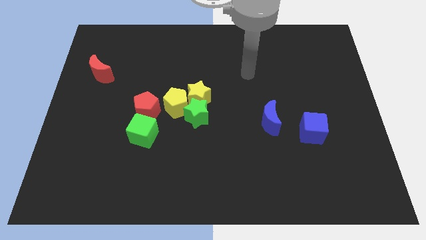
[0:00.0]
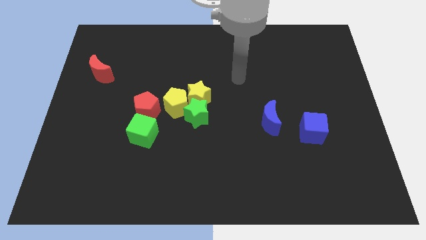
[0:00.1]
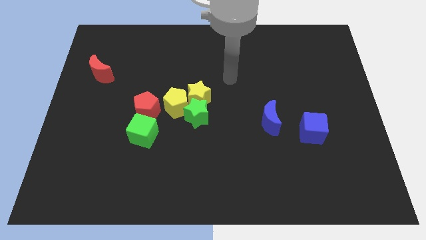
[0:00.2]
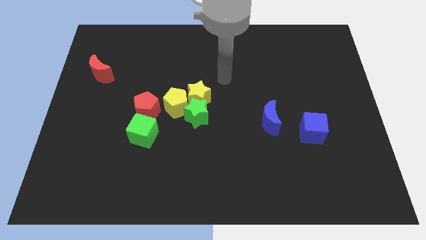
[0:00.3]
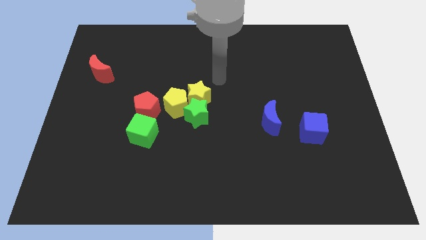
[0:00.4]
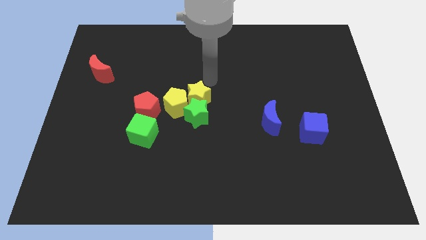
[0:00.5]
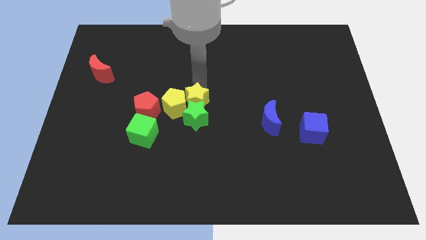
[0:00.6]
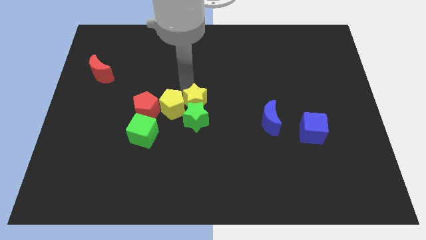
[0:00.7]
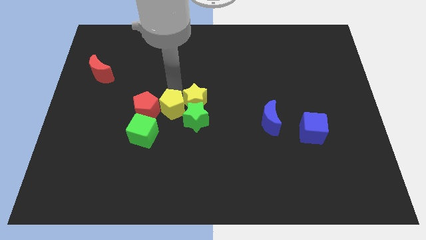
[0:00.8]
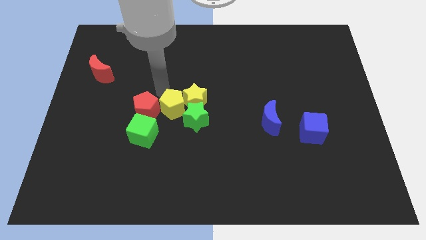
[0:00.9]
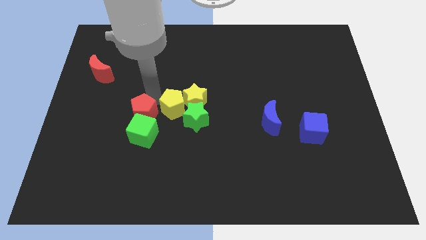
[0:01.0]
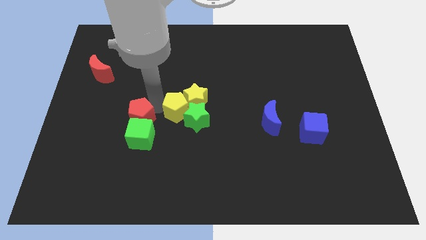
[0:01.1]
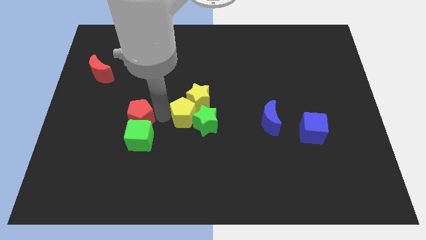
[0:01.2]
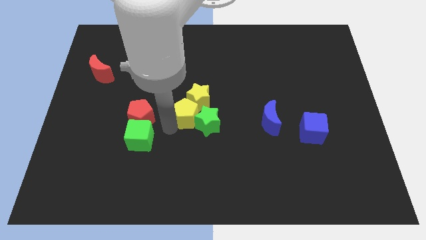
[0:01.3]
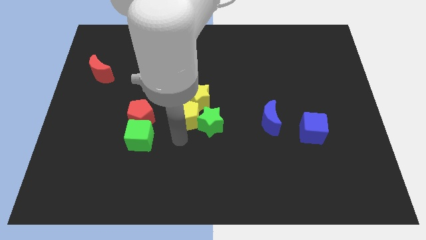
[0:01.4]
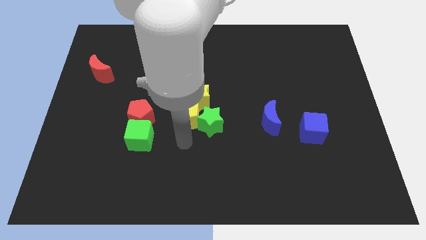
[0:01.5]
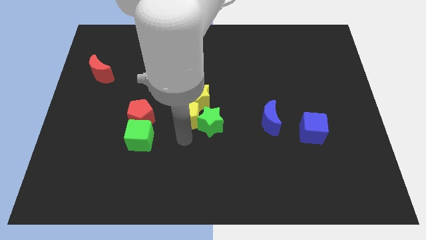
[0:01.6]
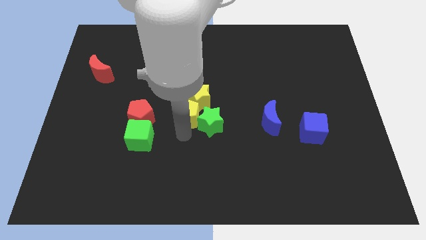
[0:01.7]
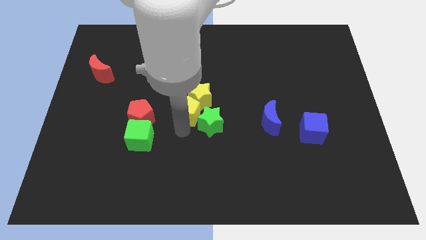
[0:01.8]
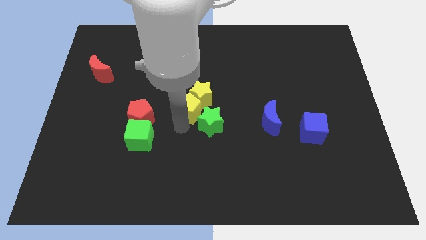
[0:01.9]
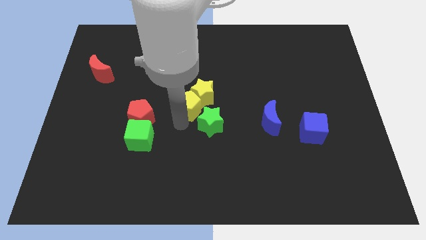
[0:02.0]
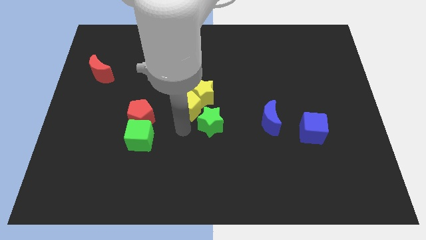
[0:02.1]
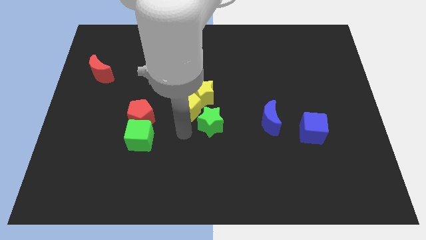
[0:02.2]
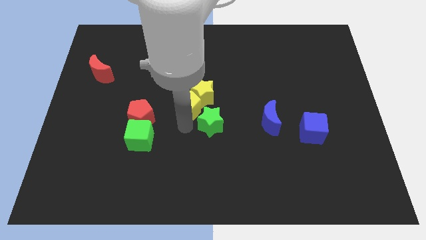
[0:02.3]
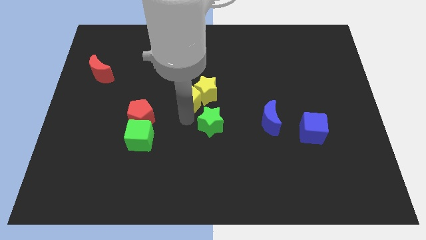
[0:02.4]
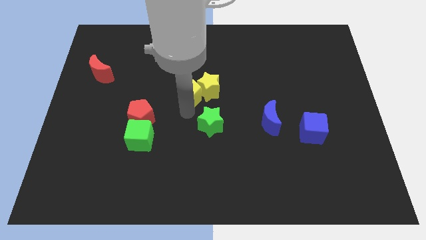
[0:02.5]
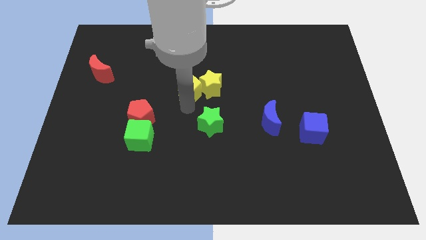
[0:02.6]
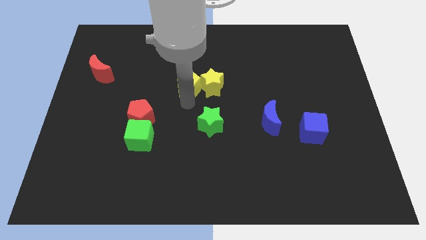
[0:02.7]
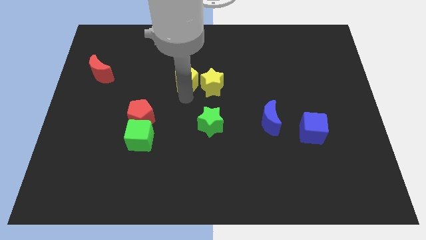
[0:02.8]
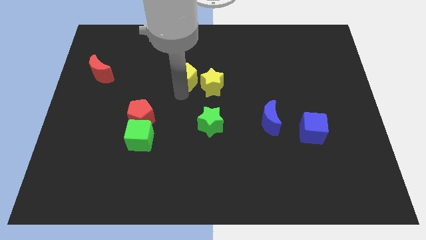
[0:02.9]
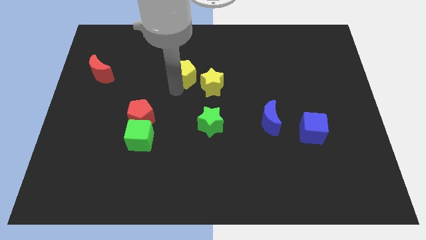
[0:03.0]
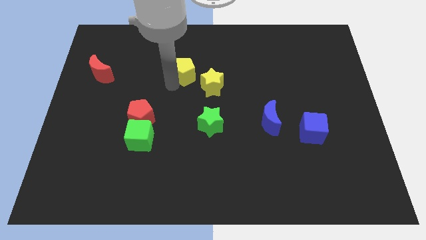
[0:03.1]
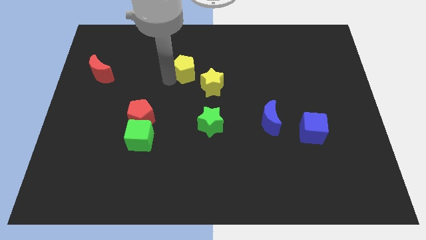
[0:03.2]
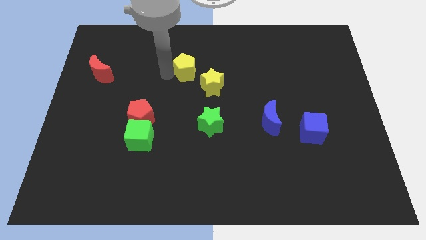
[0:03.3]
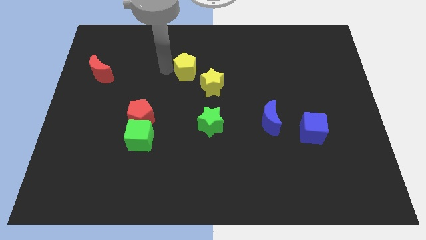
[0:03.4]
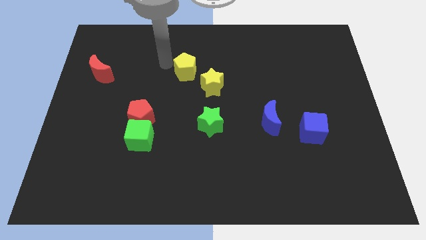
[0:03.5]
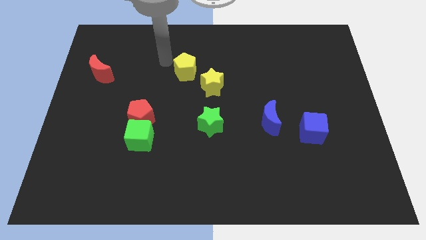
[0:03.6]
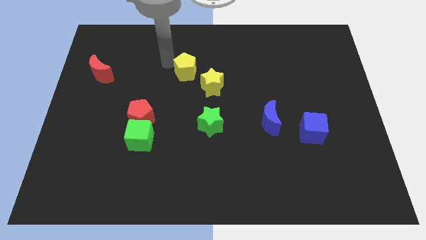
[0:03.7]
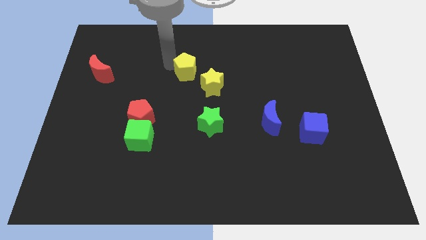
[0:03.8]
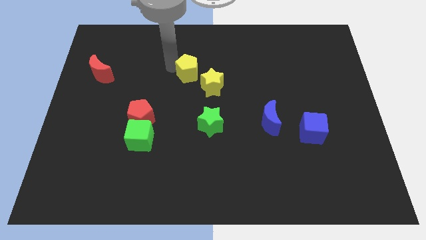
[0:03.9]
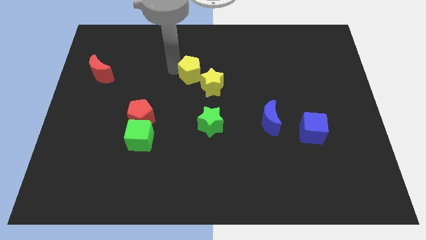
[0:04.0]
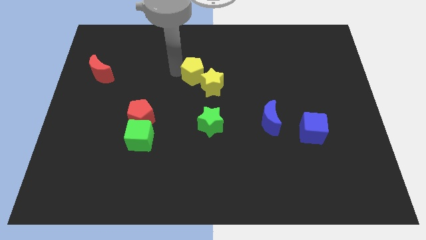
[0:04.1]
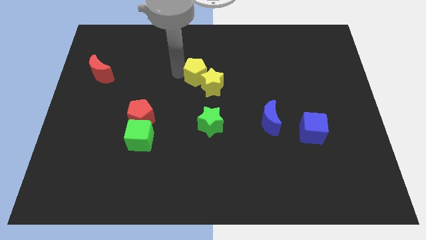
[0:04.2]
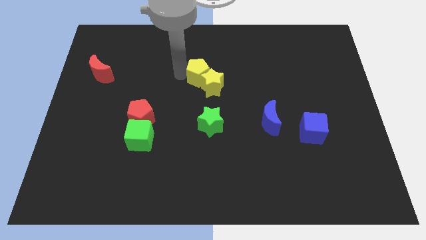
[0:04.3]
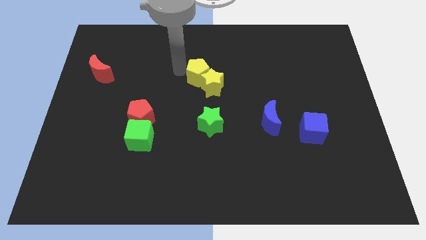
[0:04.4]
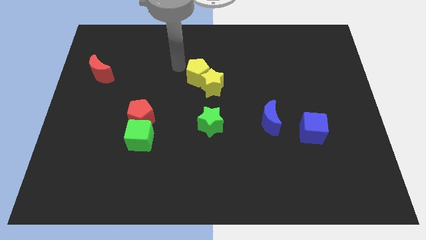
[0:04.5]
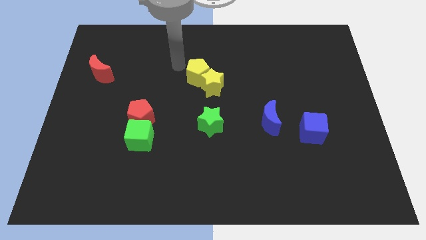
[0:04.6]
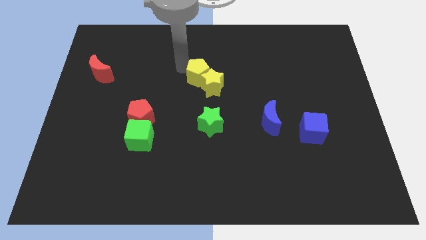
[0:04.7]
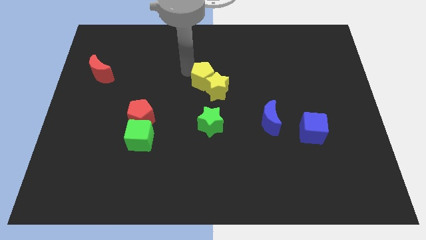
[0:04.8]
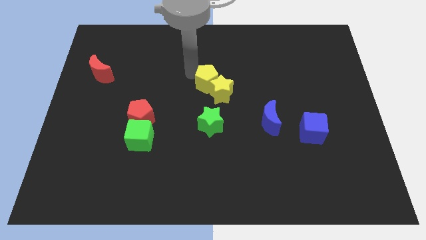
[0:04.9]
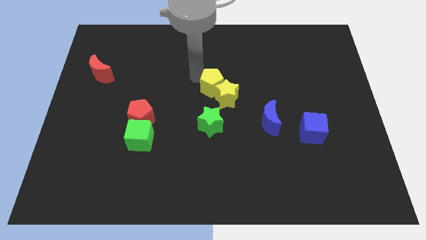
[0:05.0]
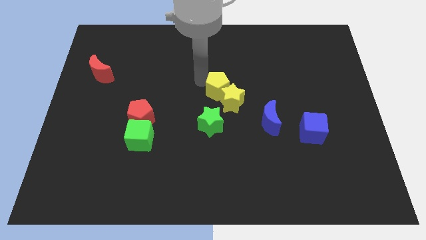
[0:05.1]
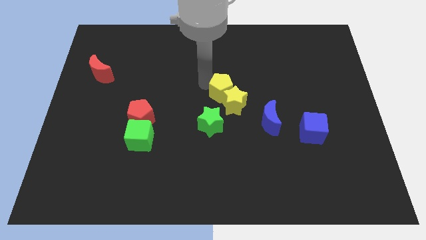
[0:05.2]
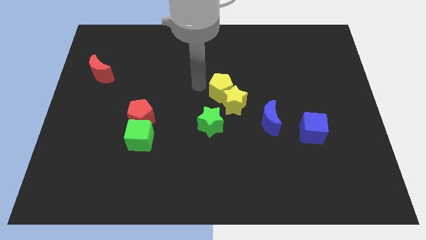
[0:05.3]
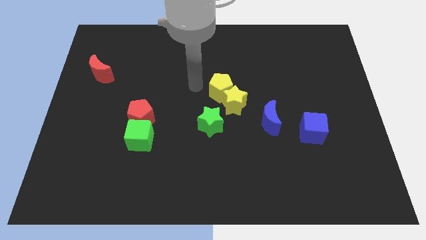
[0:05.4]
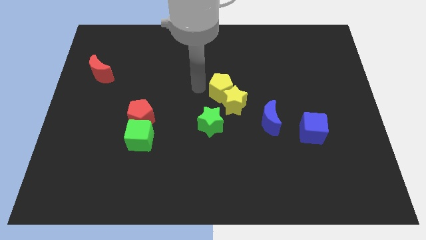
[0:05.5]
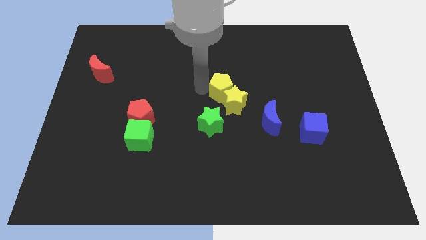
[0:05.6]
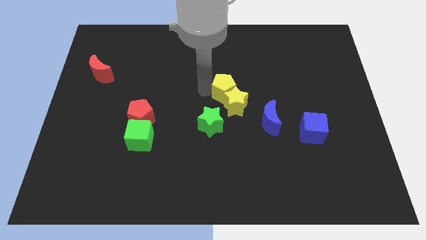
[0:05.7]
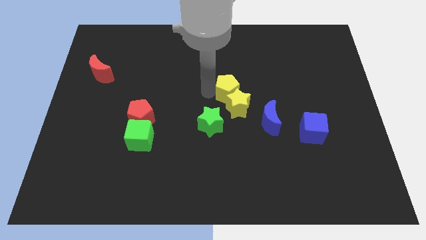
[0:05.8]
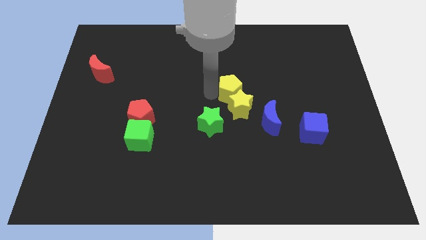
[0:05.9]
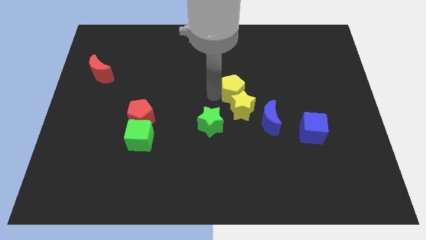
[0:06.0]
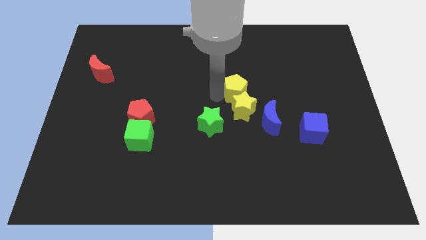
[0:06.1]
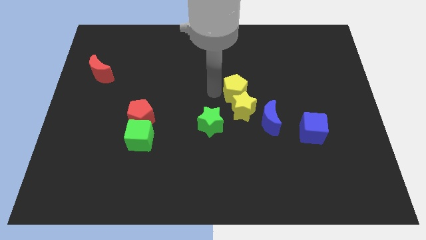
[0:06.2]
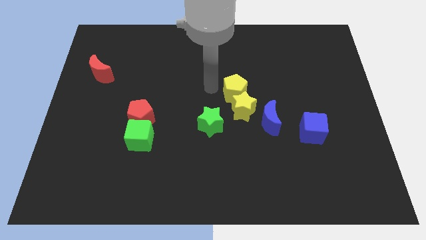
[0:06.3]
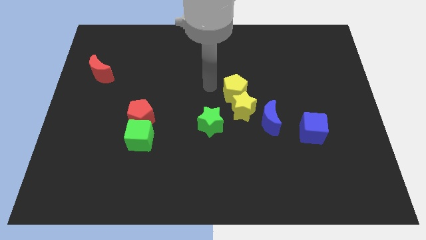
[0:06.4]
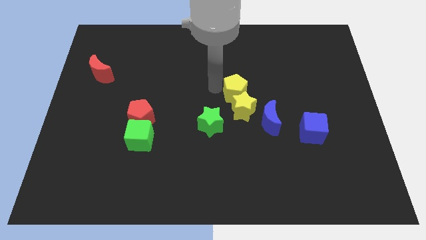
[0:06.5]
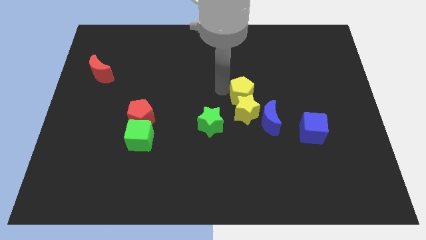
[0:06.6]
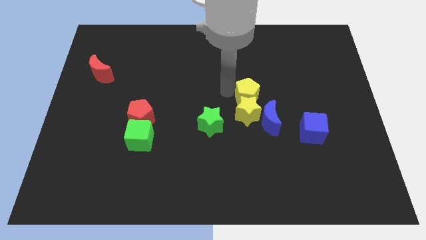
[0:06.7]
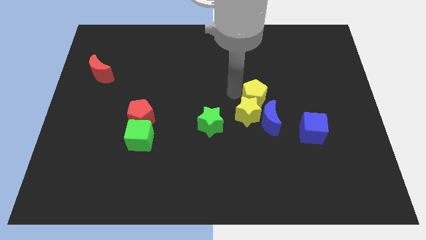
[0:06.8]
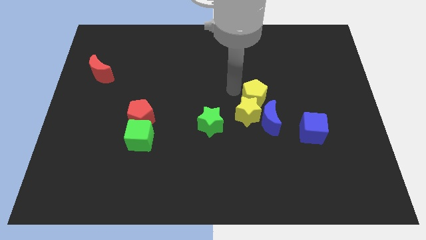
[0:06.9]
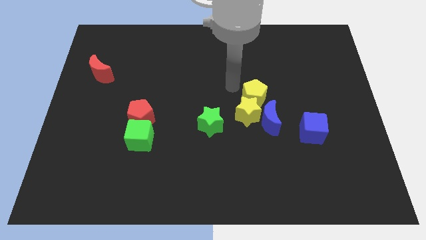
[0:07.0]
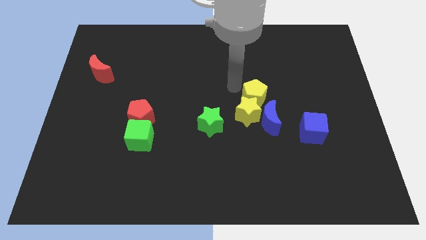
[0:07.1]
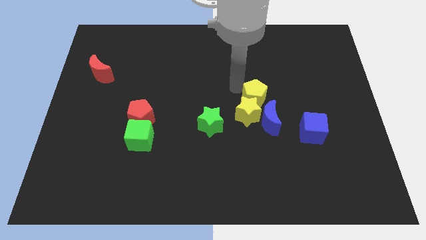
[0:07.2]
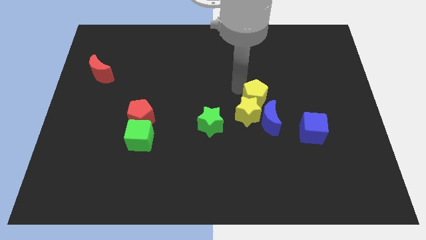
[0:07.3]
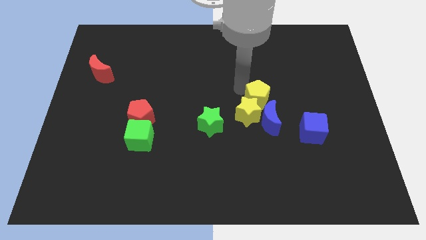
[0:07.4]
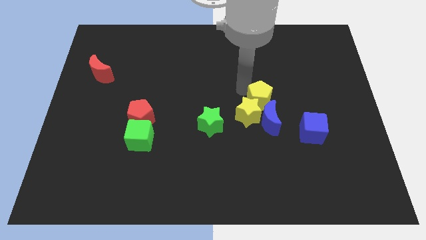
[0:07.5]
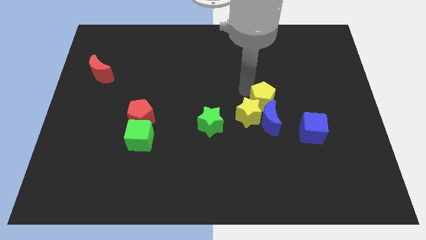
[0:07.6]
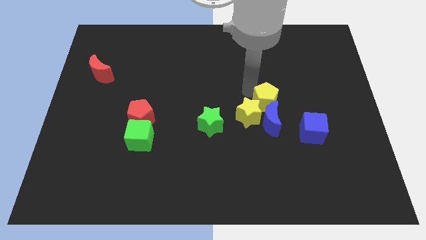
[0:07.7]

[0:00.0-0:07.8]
push the yellow pentagon diagonally up and to the left of the blue cube
